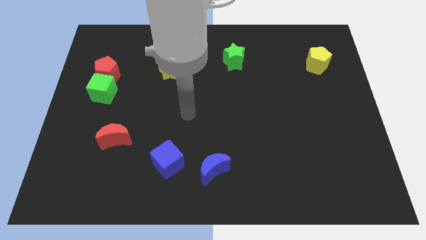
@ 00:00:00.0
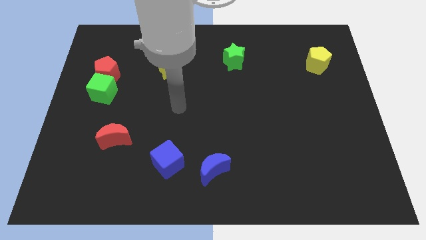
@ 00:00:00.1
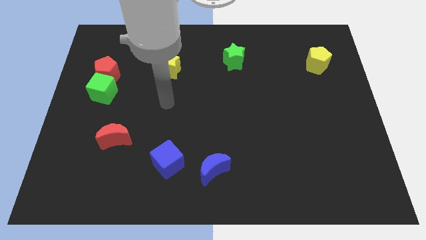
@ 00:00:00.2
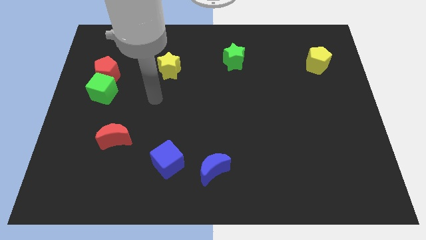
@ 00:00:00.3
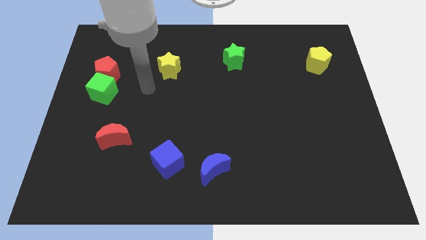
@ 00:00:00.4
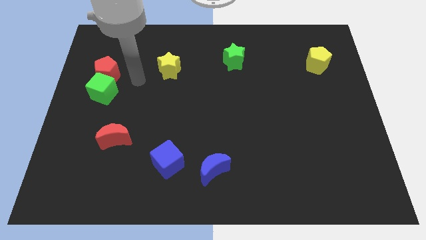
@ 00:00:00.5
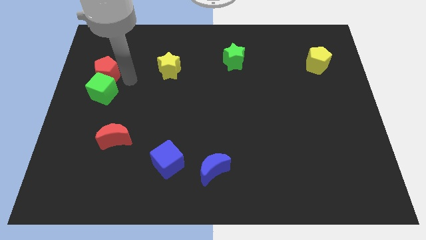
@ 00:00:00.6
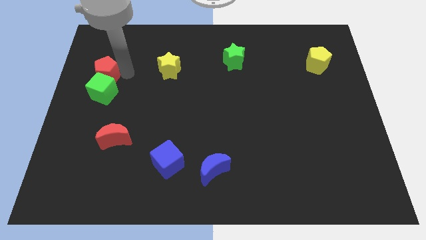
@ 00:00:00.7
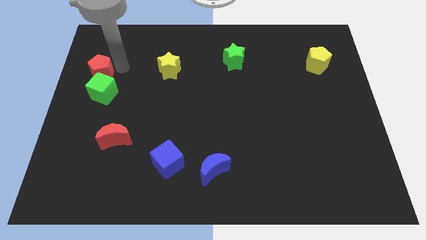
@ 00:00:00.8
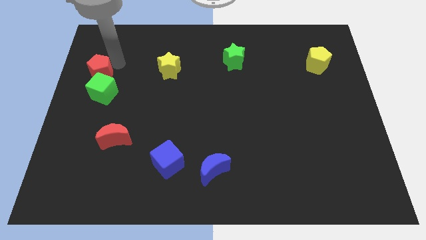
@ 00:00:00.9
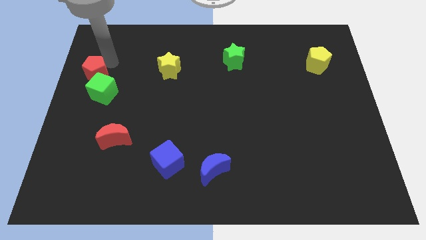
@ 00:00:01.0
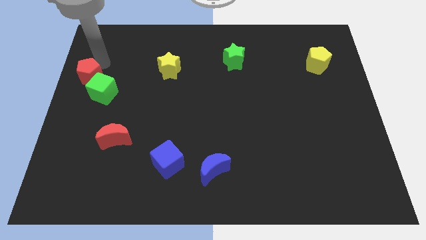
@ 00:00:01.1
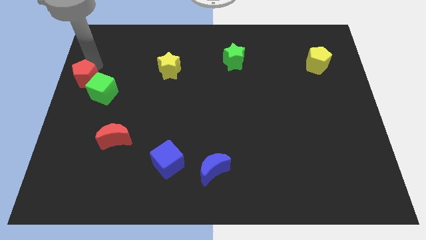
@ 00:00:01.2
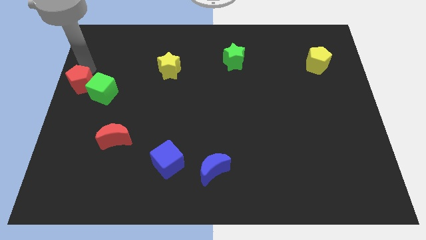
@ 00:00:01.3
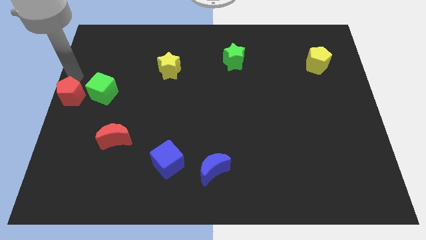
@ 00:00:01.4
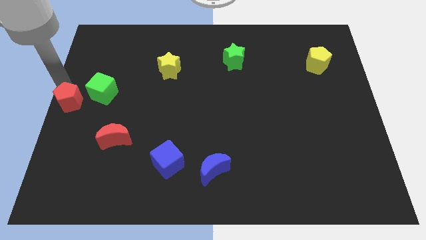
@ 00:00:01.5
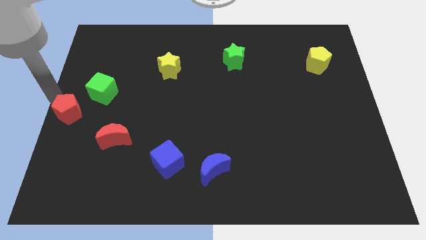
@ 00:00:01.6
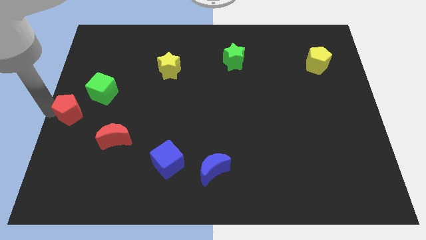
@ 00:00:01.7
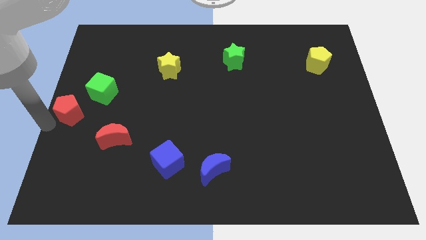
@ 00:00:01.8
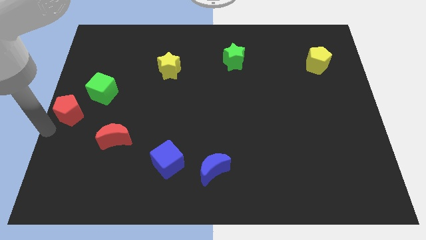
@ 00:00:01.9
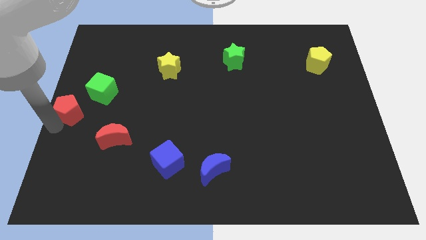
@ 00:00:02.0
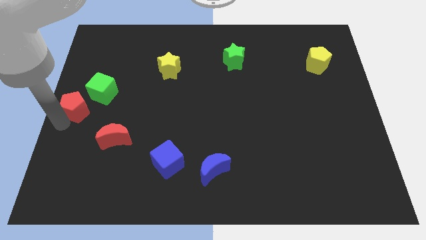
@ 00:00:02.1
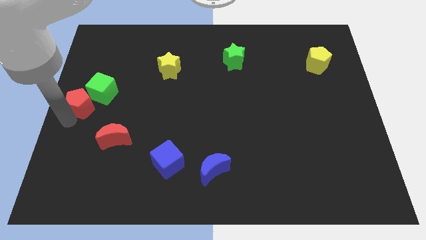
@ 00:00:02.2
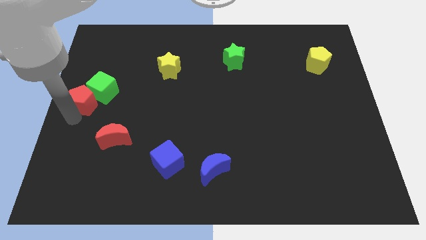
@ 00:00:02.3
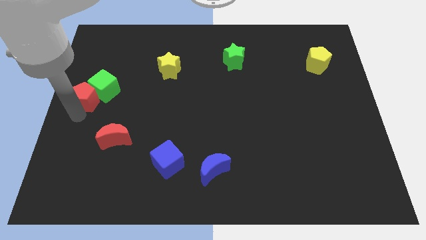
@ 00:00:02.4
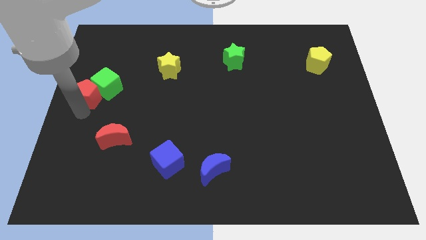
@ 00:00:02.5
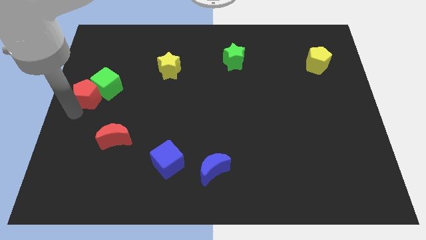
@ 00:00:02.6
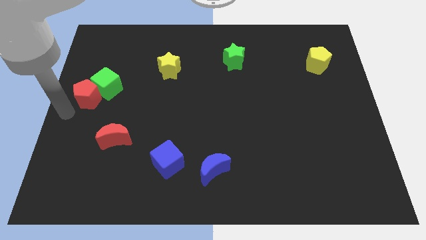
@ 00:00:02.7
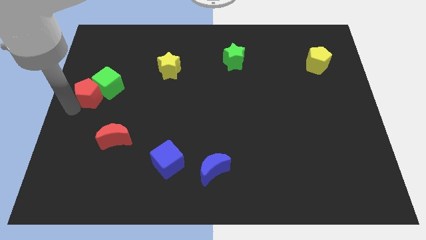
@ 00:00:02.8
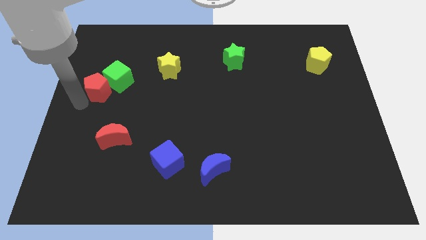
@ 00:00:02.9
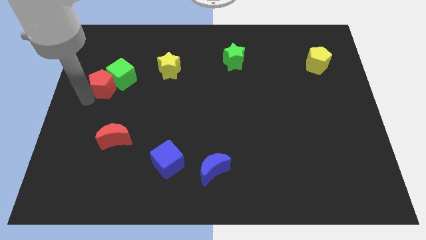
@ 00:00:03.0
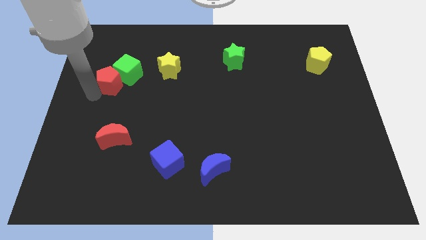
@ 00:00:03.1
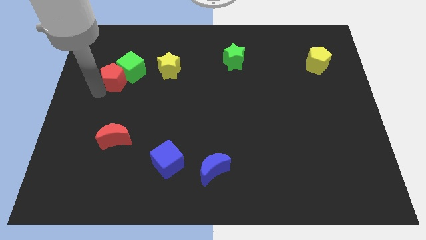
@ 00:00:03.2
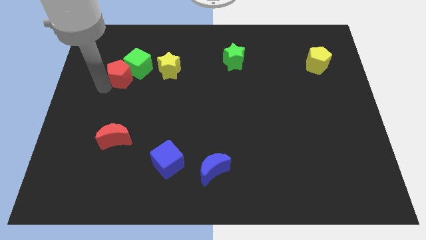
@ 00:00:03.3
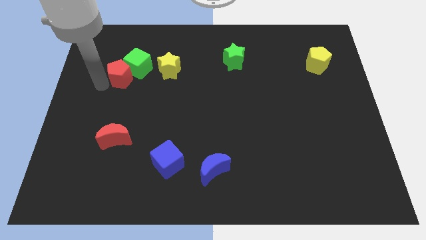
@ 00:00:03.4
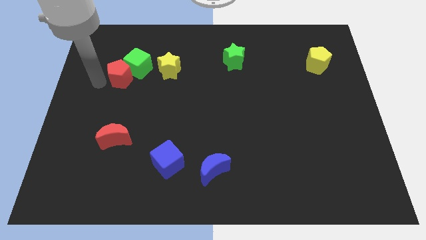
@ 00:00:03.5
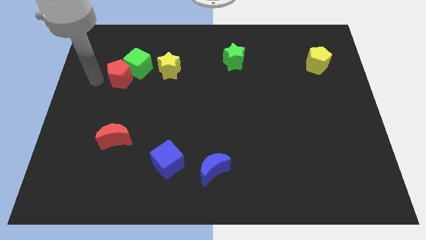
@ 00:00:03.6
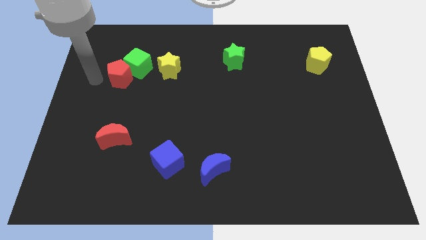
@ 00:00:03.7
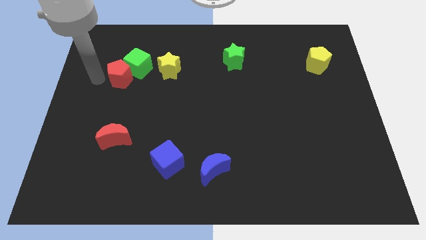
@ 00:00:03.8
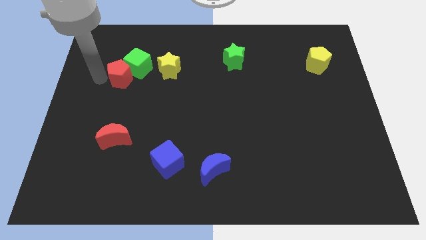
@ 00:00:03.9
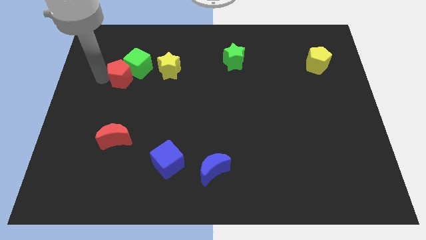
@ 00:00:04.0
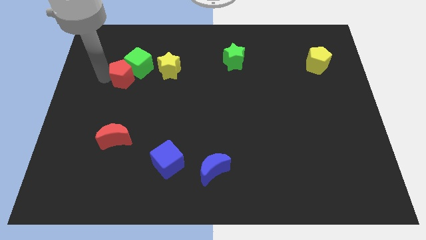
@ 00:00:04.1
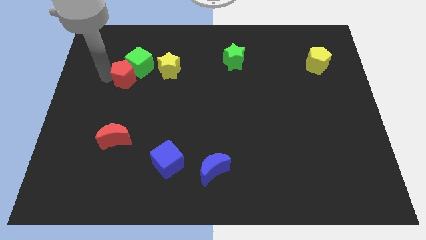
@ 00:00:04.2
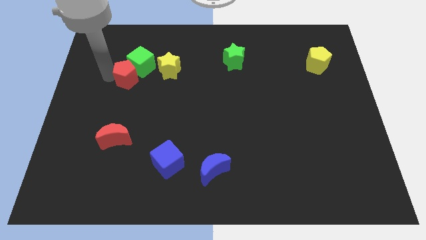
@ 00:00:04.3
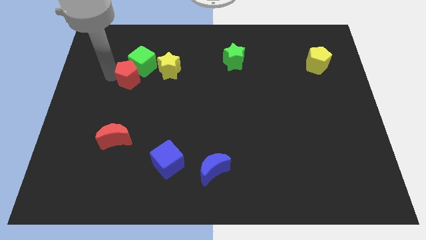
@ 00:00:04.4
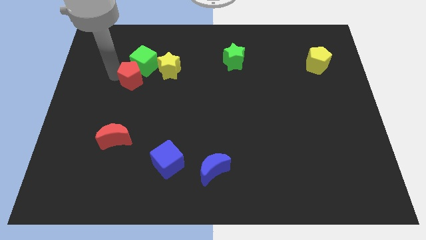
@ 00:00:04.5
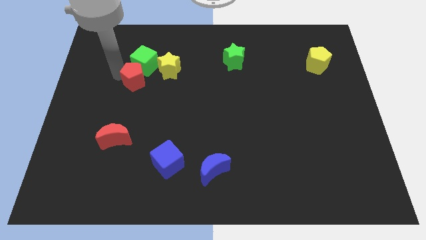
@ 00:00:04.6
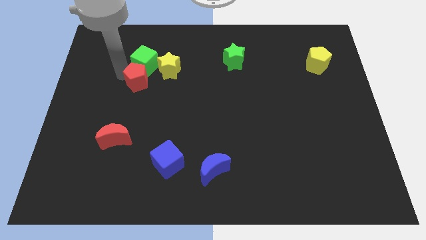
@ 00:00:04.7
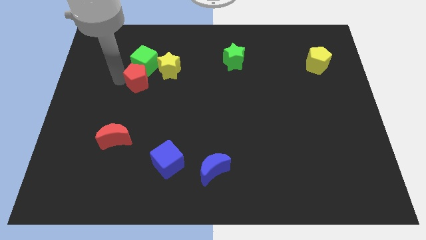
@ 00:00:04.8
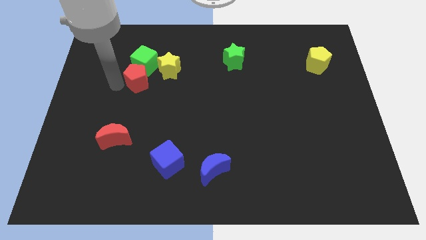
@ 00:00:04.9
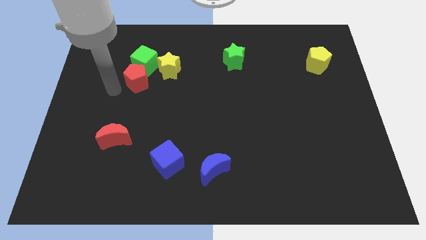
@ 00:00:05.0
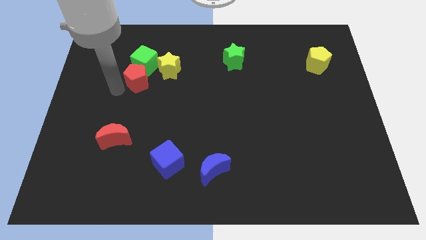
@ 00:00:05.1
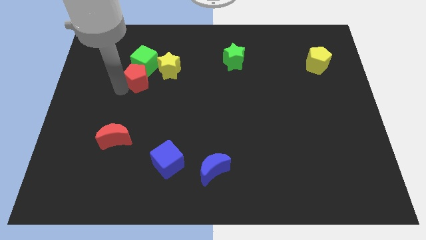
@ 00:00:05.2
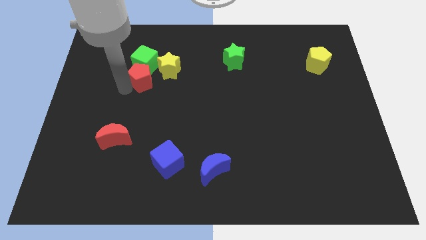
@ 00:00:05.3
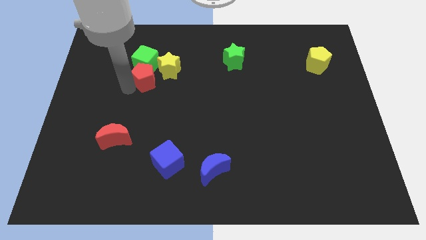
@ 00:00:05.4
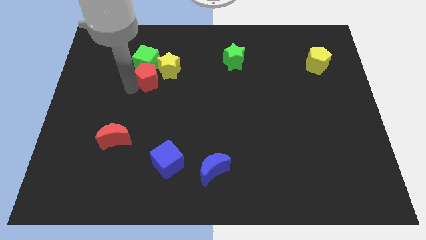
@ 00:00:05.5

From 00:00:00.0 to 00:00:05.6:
push the red pentagon to the yellow star

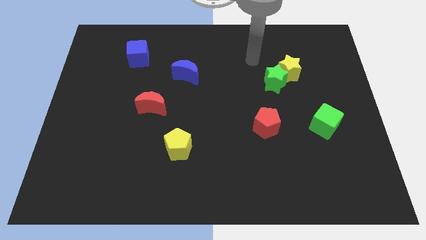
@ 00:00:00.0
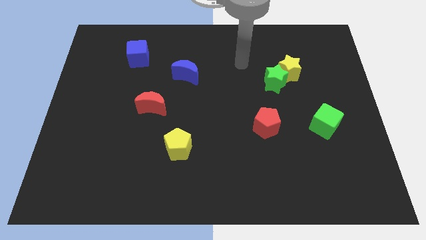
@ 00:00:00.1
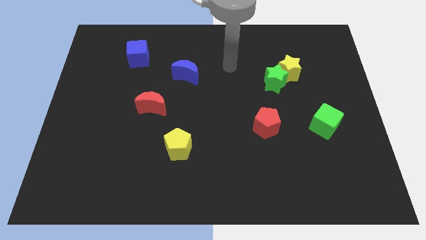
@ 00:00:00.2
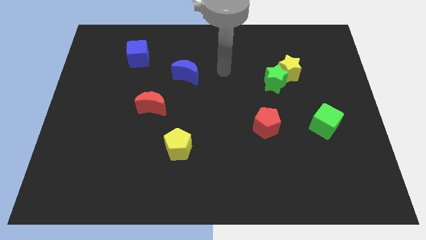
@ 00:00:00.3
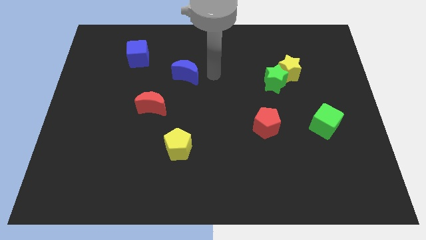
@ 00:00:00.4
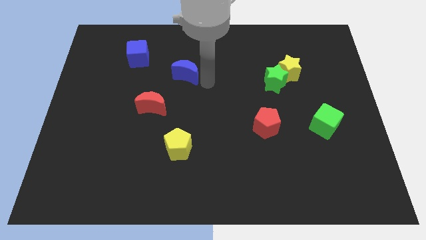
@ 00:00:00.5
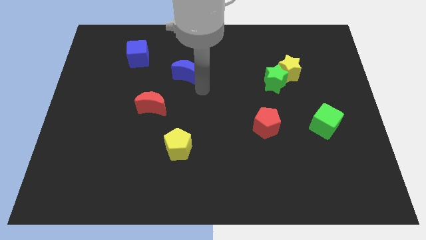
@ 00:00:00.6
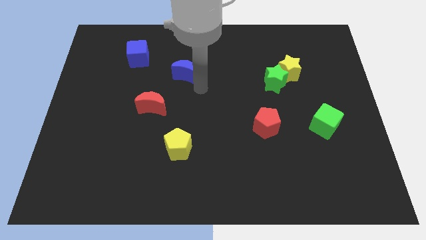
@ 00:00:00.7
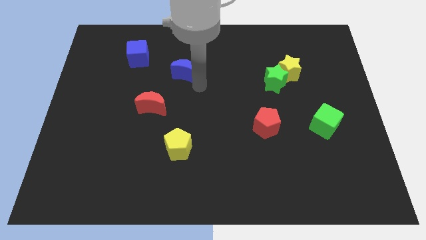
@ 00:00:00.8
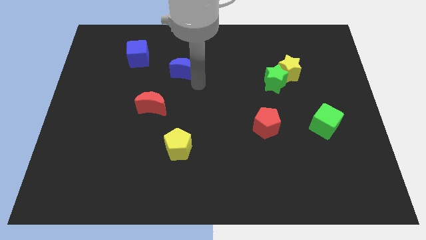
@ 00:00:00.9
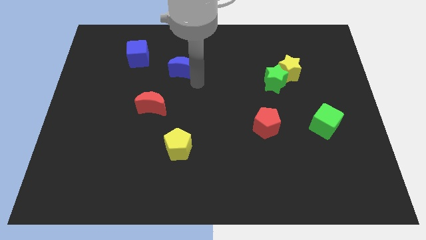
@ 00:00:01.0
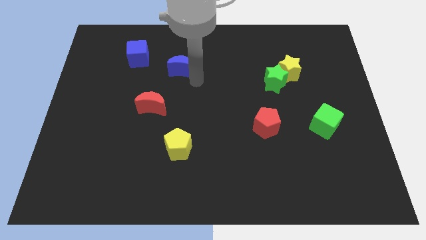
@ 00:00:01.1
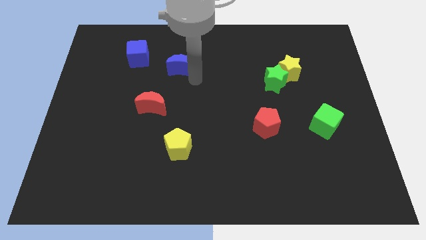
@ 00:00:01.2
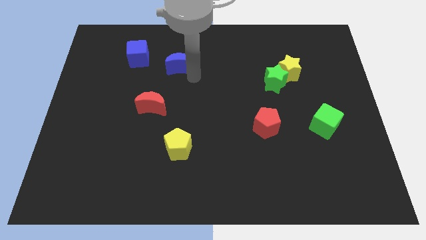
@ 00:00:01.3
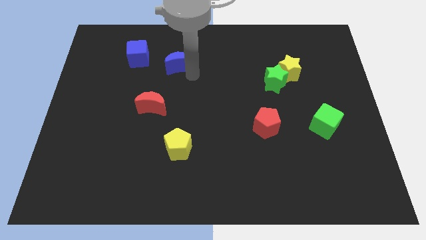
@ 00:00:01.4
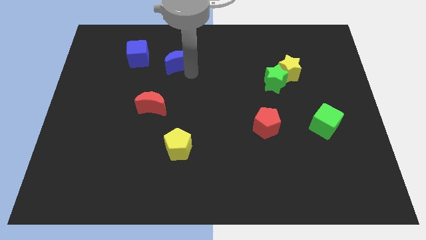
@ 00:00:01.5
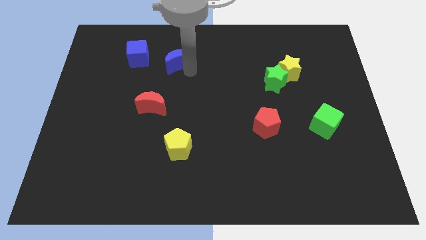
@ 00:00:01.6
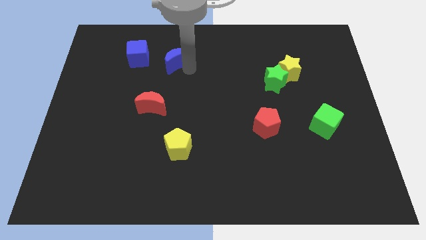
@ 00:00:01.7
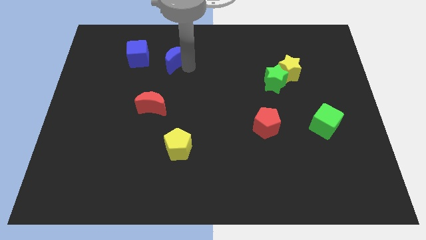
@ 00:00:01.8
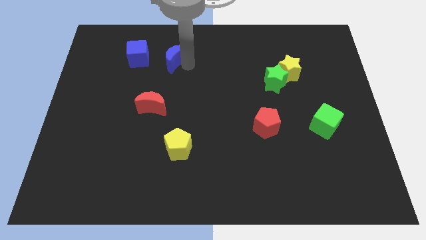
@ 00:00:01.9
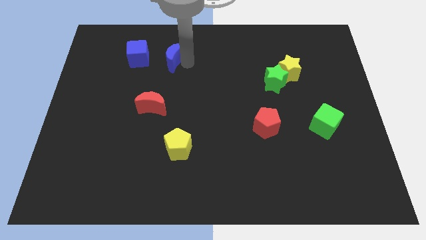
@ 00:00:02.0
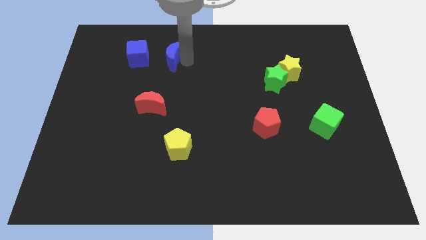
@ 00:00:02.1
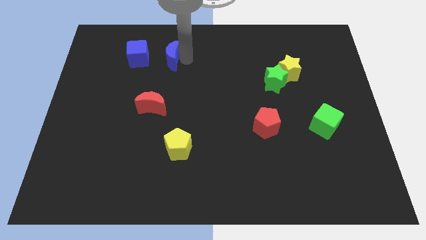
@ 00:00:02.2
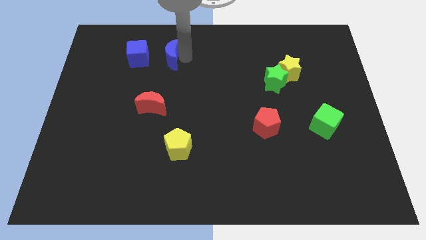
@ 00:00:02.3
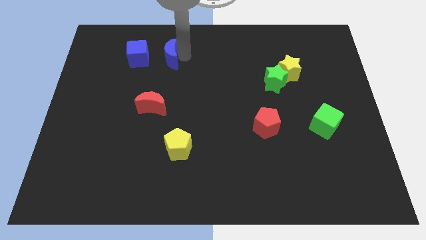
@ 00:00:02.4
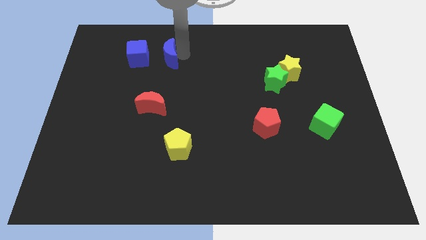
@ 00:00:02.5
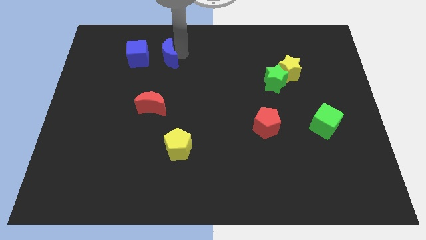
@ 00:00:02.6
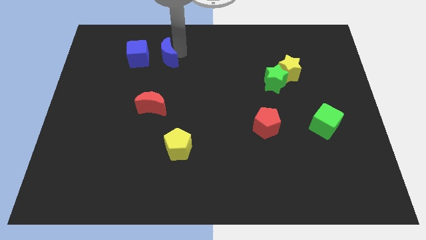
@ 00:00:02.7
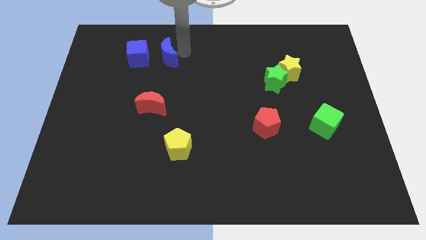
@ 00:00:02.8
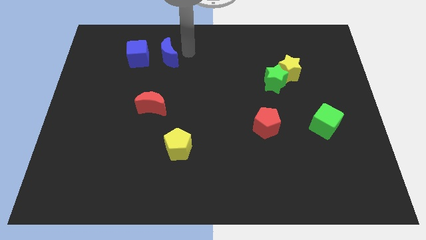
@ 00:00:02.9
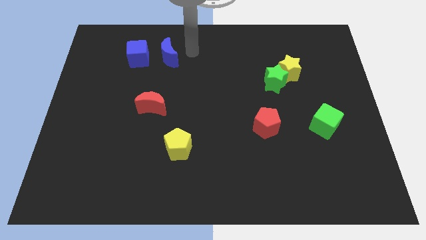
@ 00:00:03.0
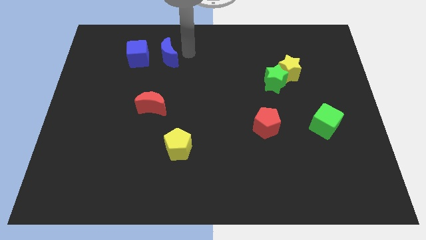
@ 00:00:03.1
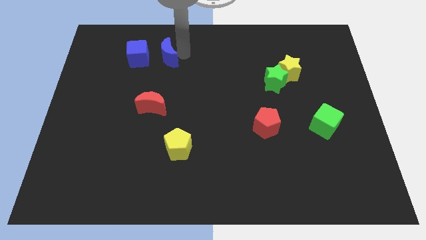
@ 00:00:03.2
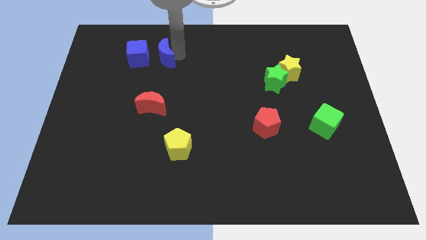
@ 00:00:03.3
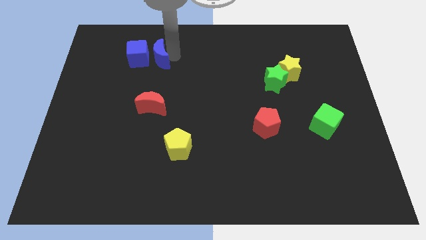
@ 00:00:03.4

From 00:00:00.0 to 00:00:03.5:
push the blue moon close to the blue cube
